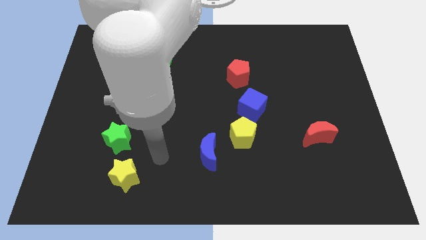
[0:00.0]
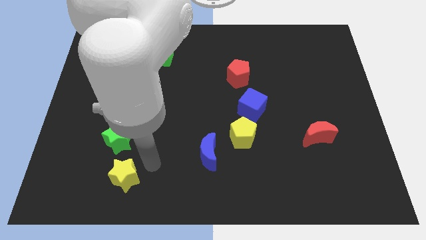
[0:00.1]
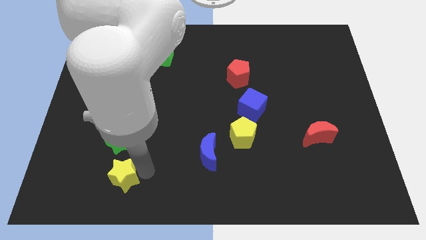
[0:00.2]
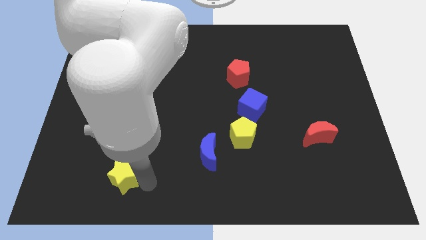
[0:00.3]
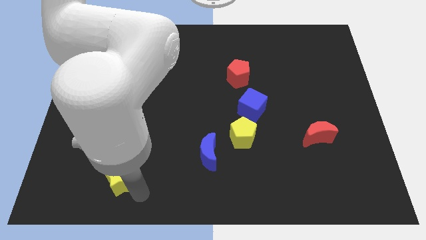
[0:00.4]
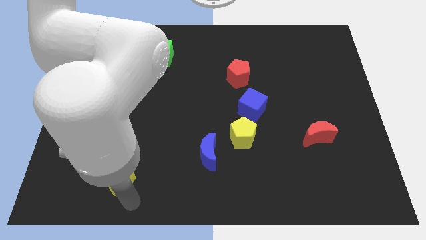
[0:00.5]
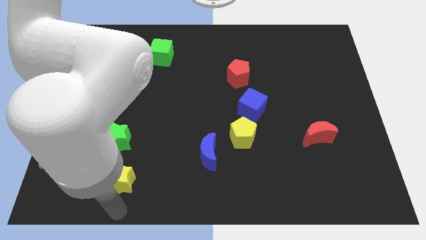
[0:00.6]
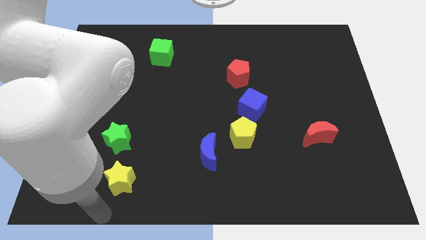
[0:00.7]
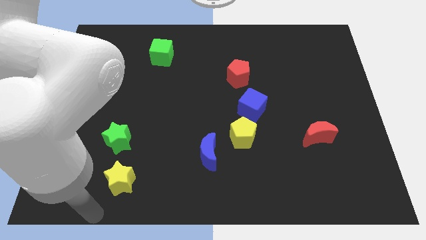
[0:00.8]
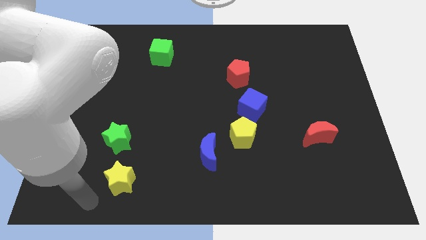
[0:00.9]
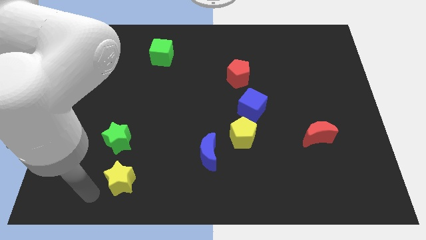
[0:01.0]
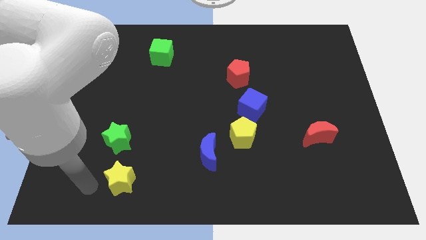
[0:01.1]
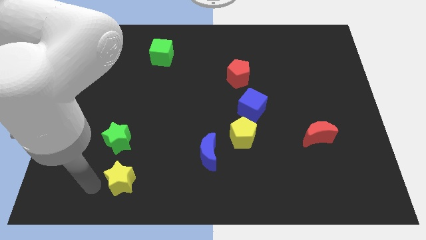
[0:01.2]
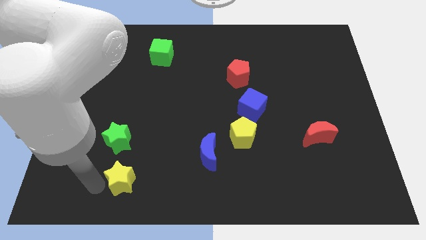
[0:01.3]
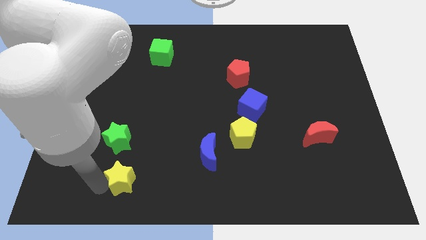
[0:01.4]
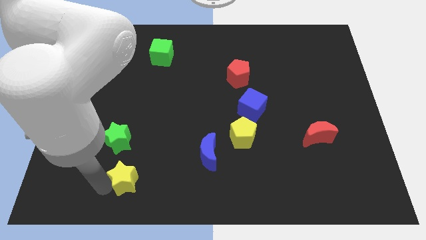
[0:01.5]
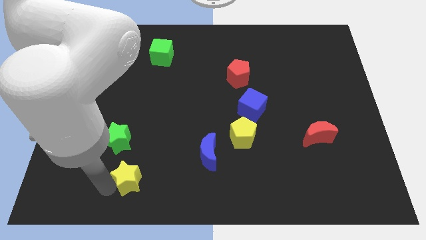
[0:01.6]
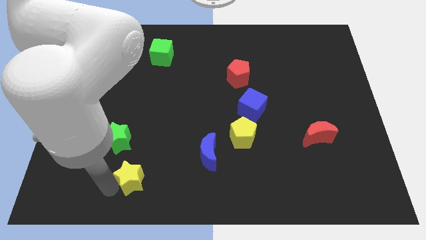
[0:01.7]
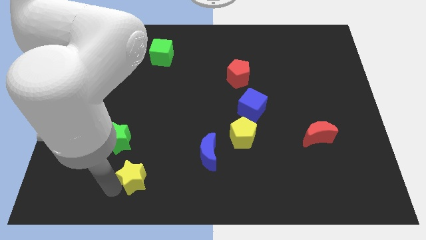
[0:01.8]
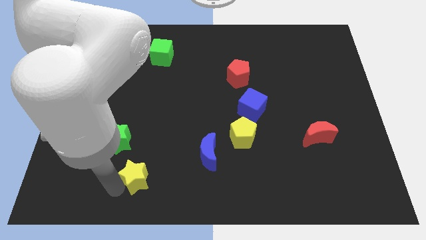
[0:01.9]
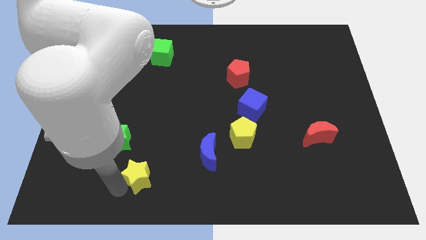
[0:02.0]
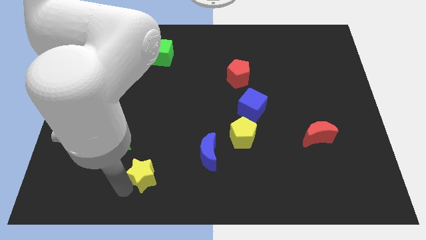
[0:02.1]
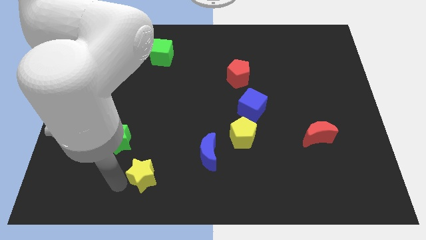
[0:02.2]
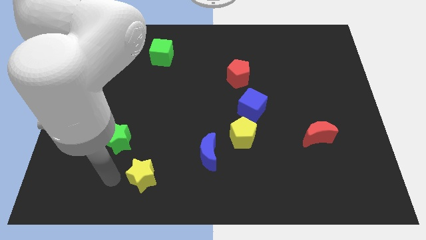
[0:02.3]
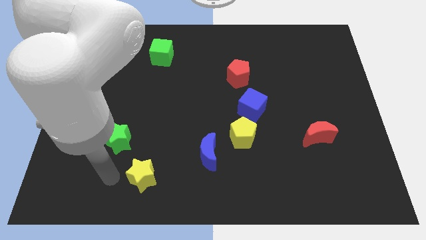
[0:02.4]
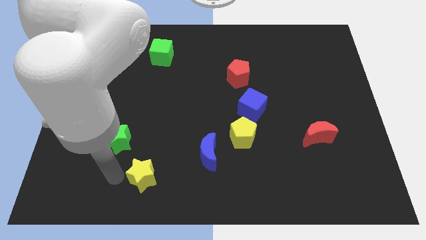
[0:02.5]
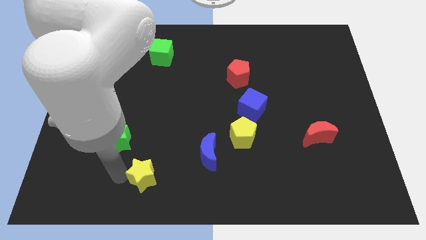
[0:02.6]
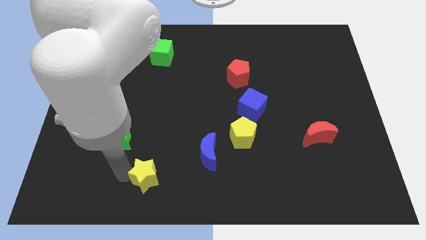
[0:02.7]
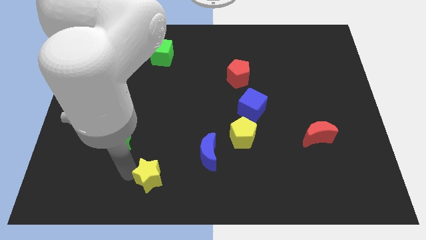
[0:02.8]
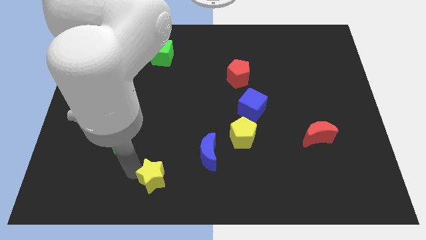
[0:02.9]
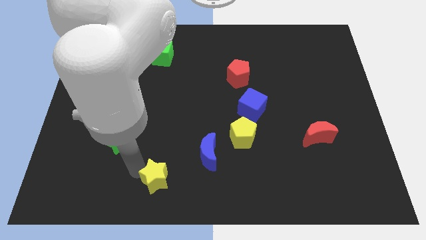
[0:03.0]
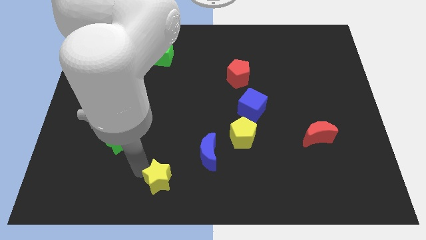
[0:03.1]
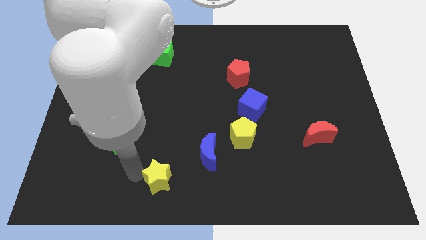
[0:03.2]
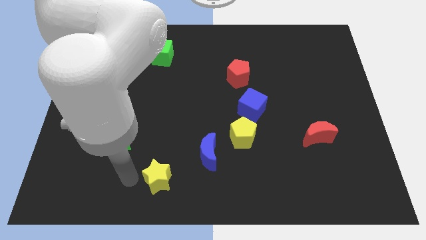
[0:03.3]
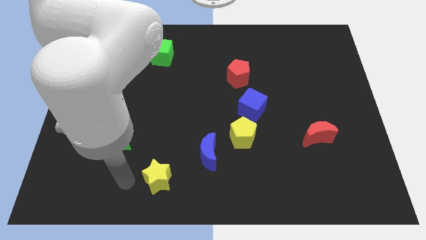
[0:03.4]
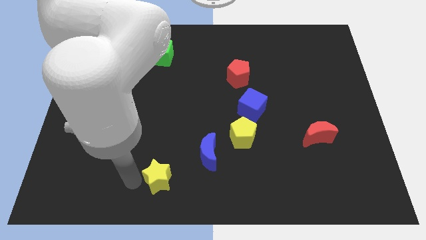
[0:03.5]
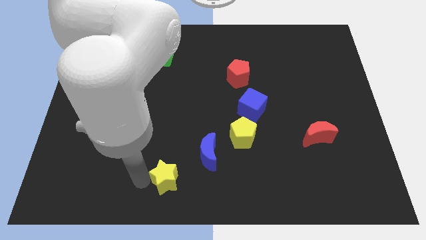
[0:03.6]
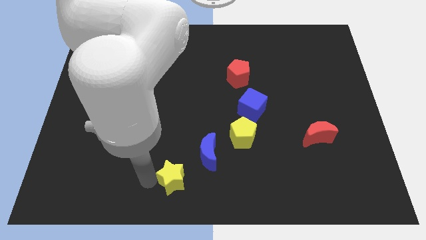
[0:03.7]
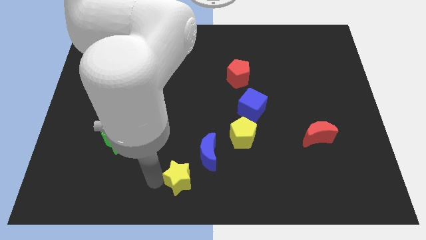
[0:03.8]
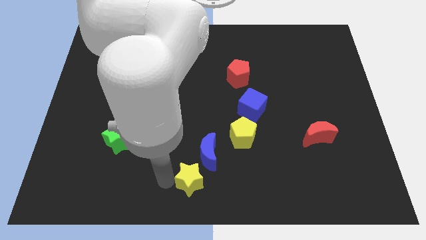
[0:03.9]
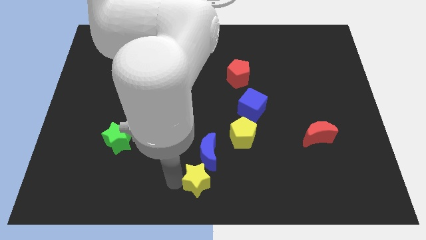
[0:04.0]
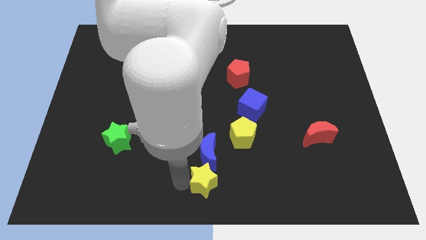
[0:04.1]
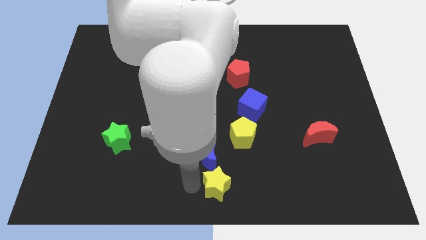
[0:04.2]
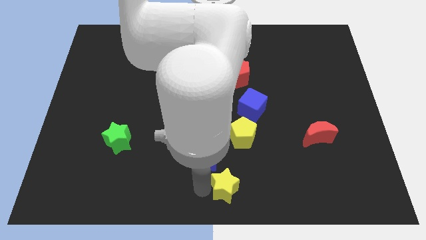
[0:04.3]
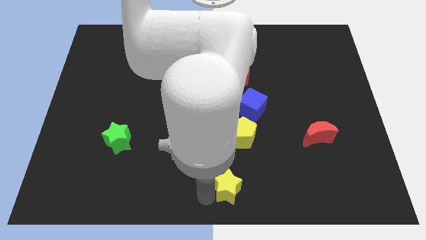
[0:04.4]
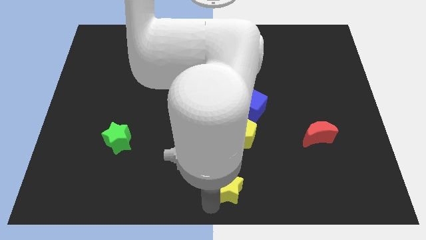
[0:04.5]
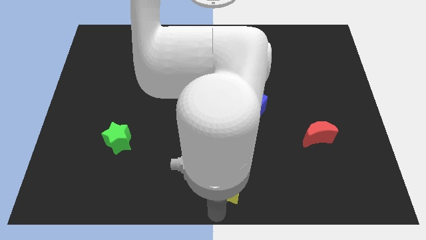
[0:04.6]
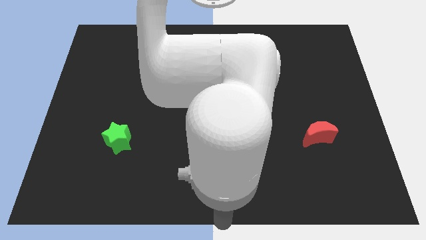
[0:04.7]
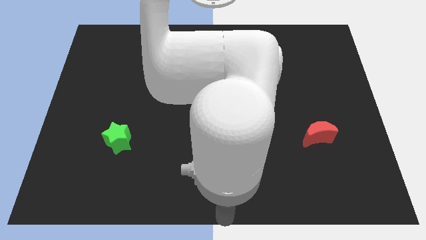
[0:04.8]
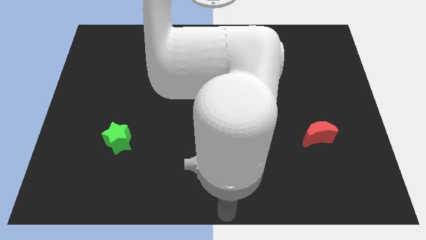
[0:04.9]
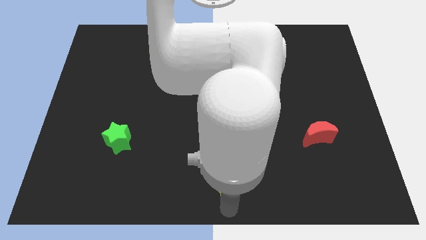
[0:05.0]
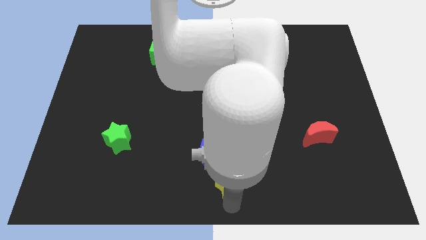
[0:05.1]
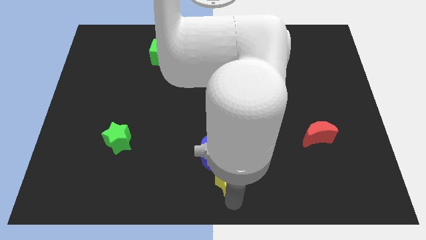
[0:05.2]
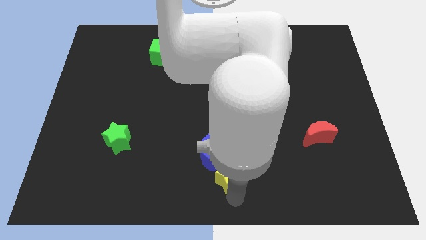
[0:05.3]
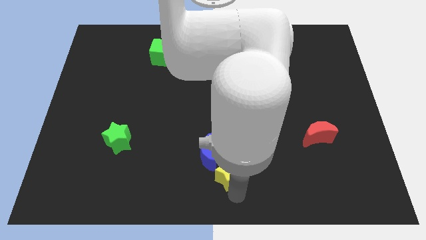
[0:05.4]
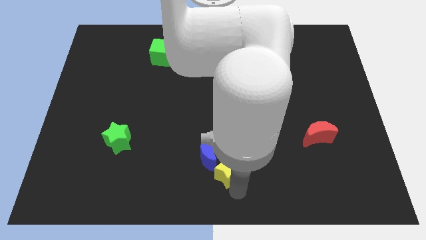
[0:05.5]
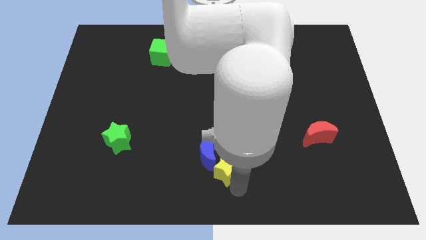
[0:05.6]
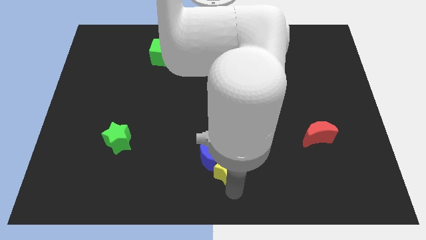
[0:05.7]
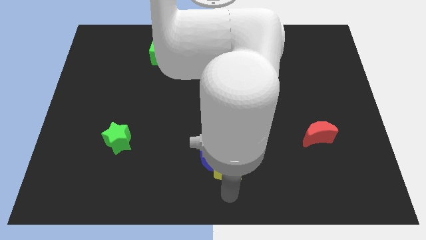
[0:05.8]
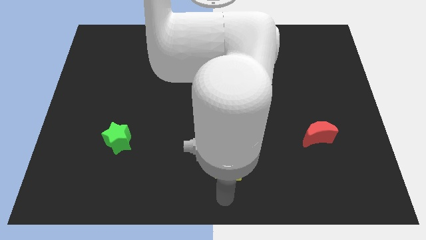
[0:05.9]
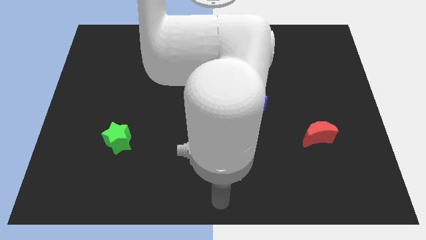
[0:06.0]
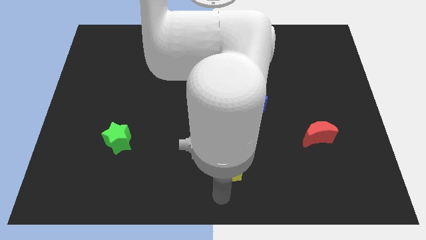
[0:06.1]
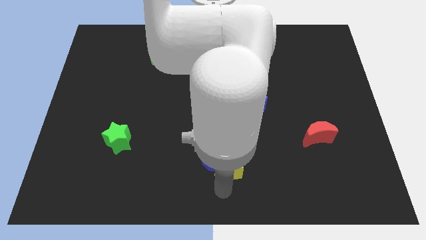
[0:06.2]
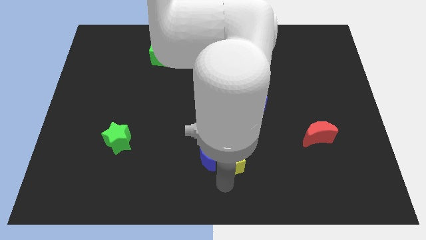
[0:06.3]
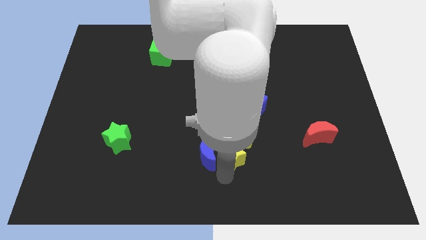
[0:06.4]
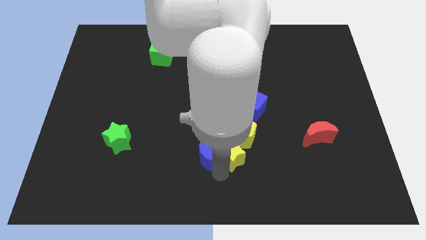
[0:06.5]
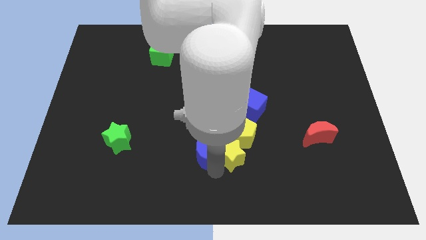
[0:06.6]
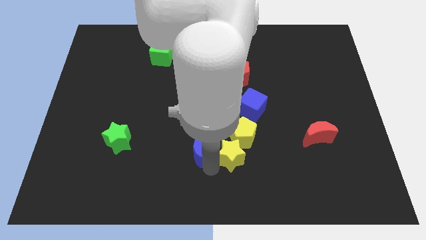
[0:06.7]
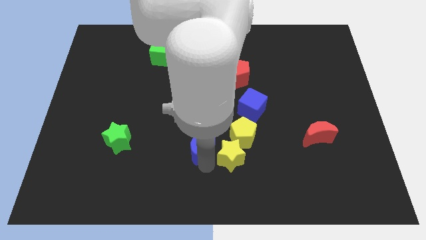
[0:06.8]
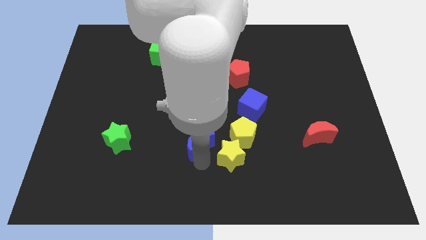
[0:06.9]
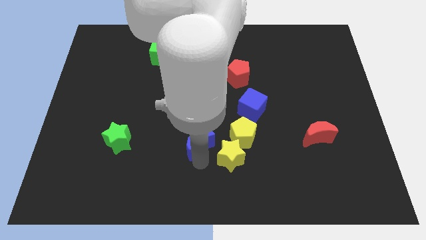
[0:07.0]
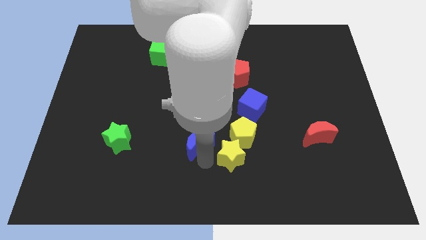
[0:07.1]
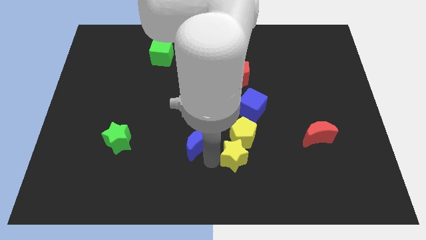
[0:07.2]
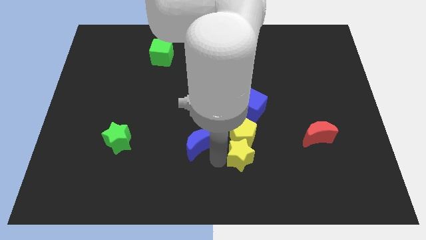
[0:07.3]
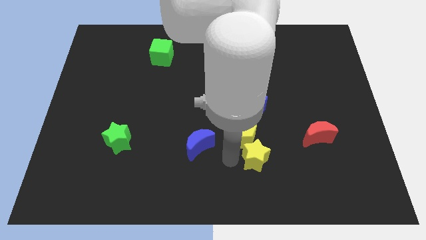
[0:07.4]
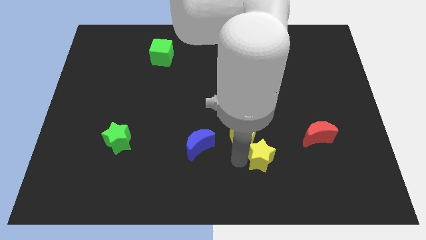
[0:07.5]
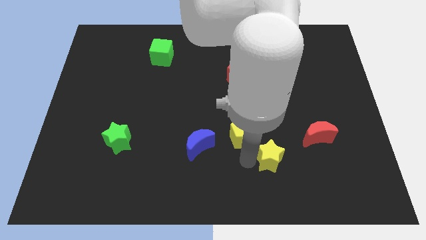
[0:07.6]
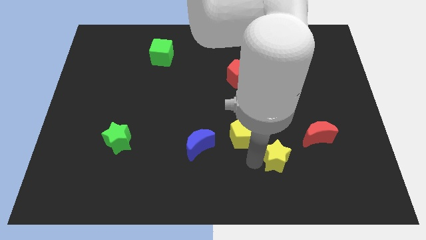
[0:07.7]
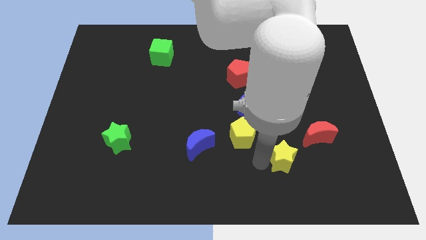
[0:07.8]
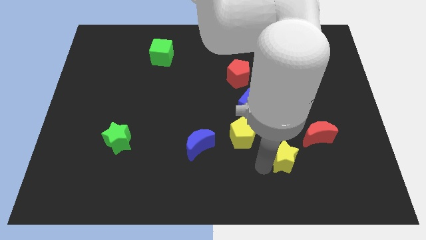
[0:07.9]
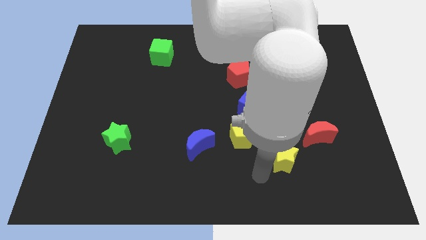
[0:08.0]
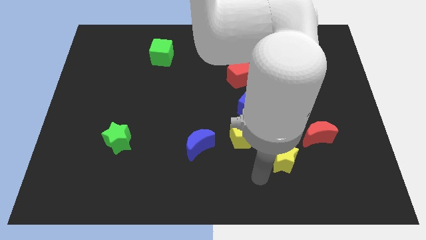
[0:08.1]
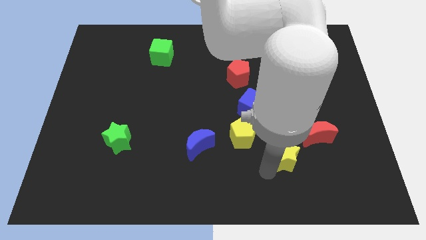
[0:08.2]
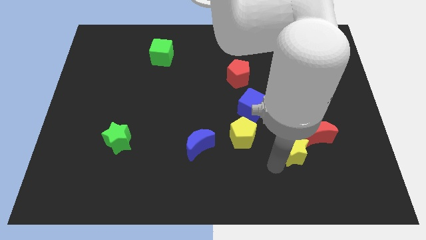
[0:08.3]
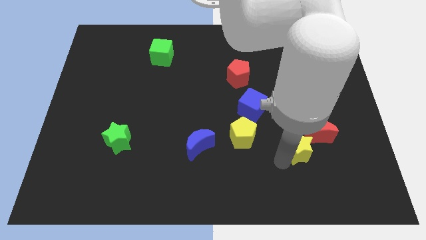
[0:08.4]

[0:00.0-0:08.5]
put the yellow star towards the red moon
